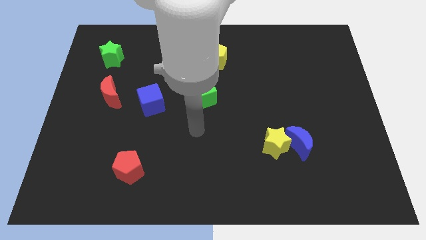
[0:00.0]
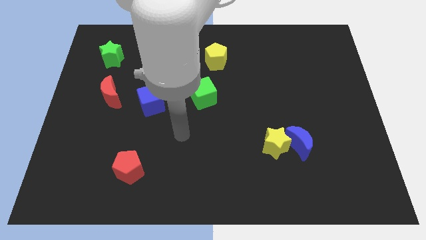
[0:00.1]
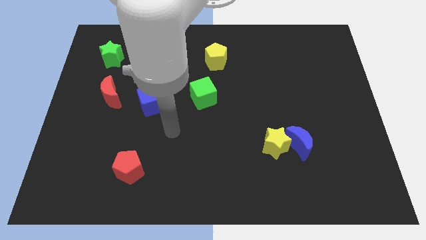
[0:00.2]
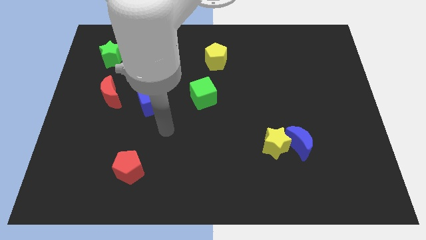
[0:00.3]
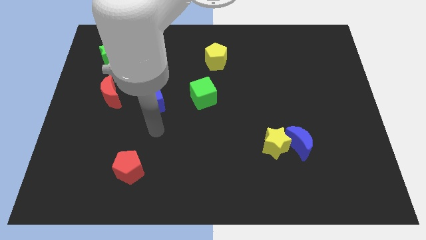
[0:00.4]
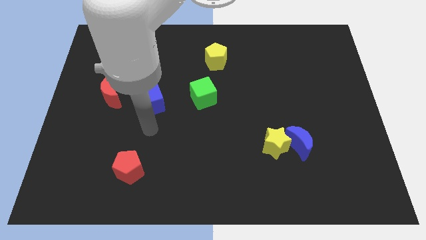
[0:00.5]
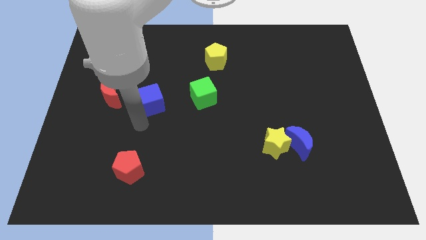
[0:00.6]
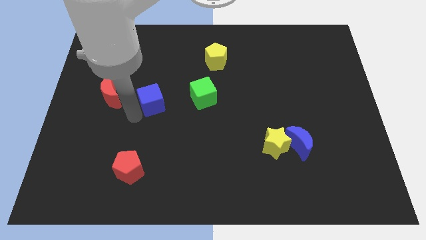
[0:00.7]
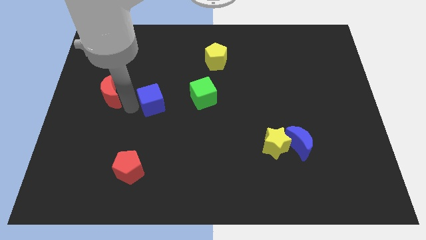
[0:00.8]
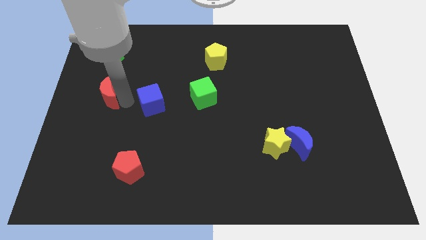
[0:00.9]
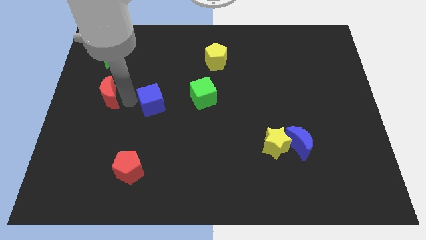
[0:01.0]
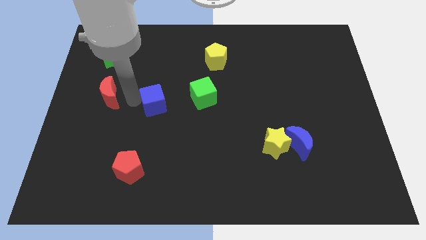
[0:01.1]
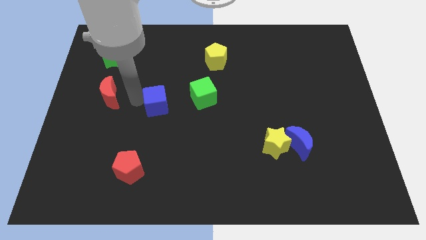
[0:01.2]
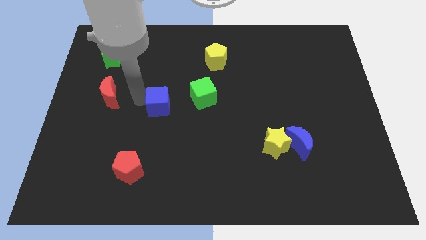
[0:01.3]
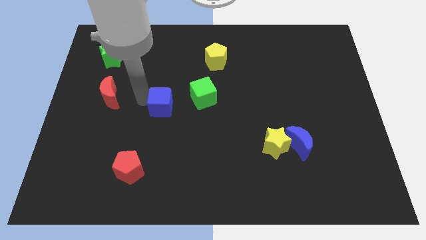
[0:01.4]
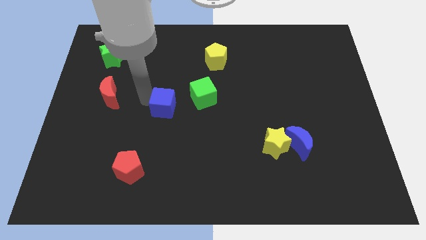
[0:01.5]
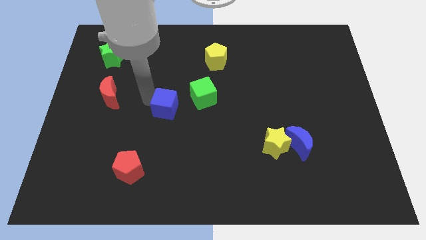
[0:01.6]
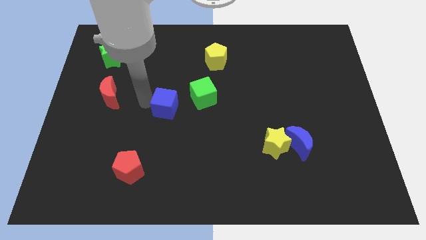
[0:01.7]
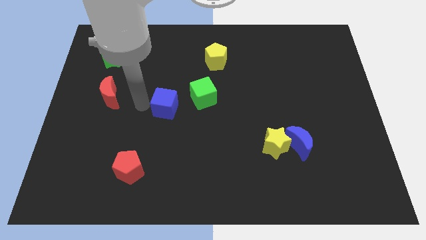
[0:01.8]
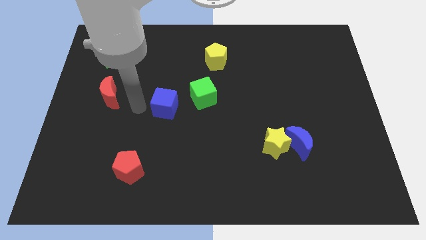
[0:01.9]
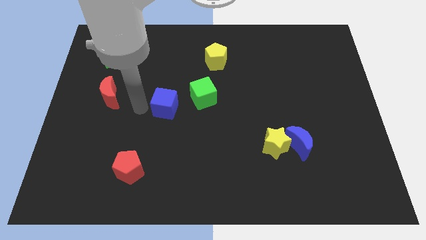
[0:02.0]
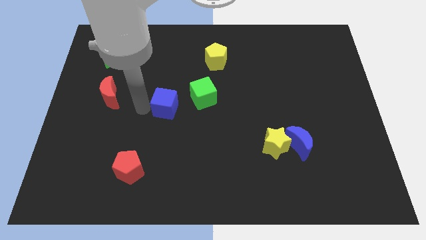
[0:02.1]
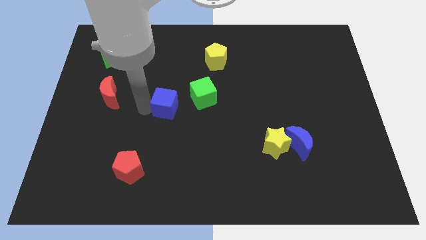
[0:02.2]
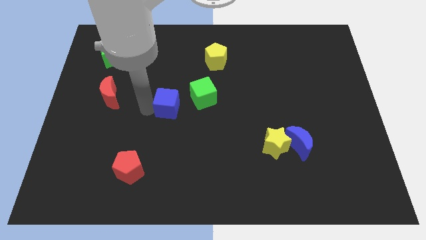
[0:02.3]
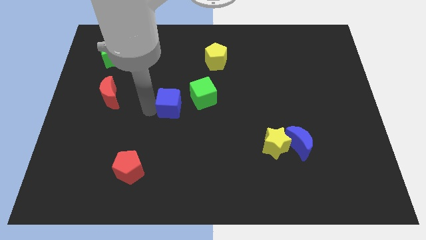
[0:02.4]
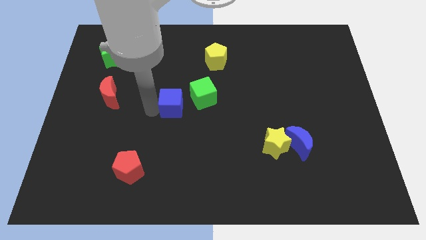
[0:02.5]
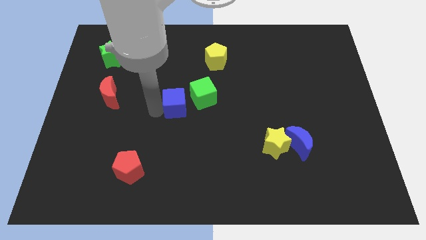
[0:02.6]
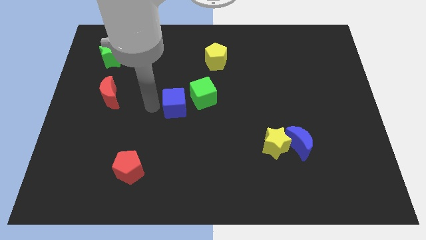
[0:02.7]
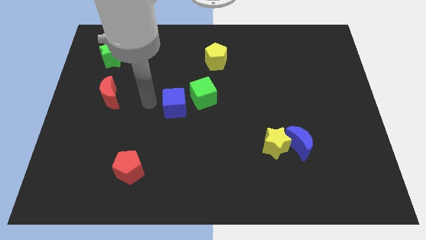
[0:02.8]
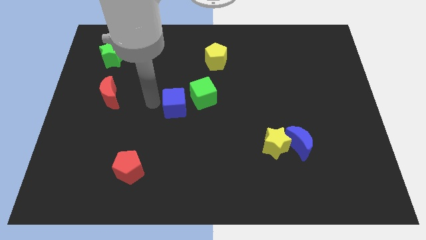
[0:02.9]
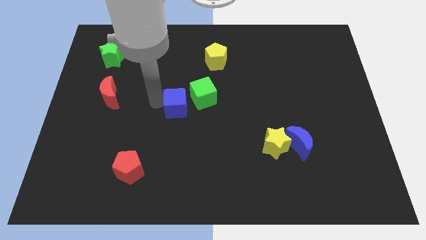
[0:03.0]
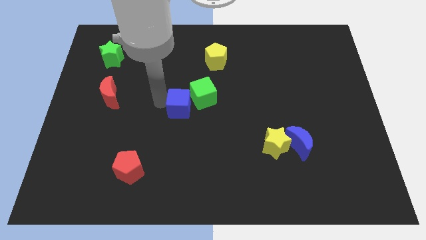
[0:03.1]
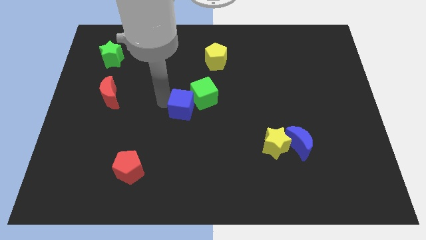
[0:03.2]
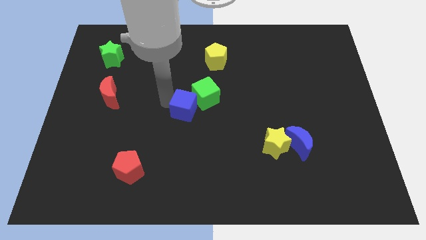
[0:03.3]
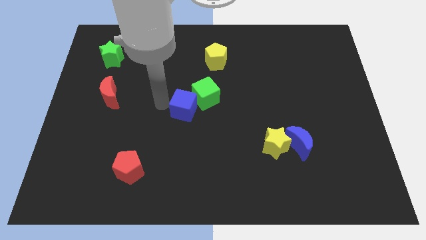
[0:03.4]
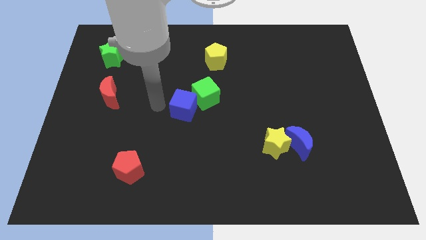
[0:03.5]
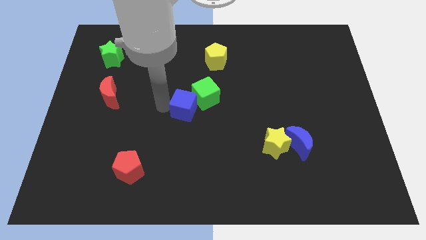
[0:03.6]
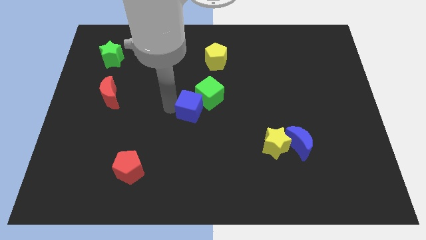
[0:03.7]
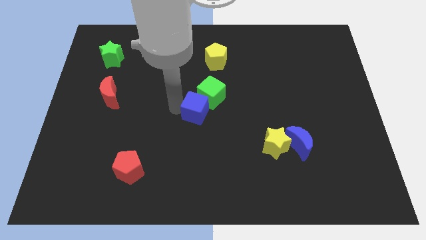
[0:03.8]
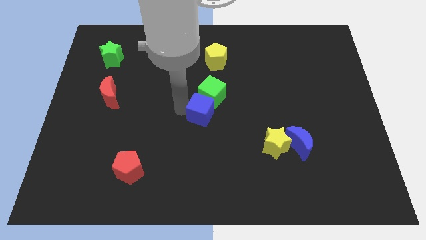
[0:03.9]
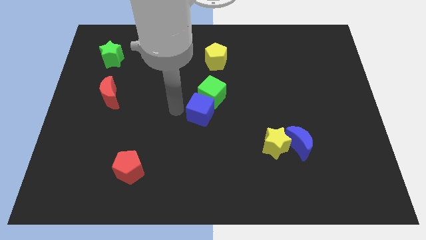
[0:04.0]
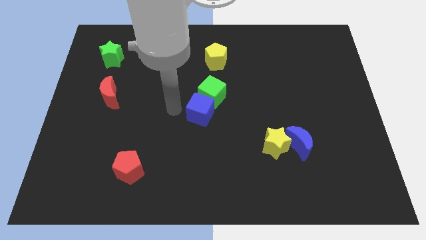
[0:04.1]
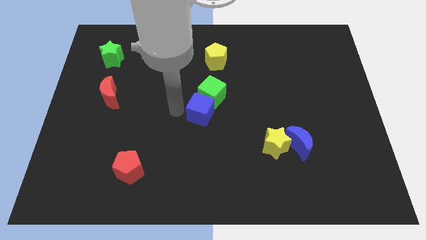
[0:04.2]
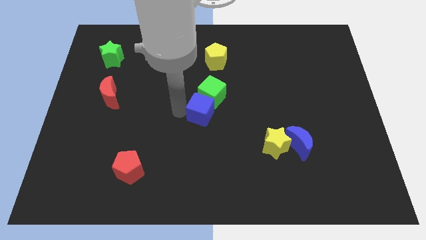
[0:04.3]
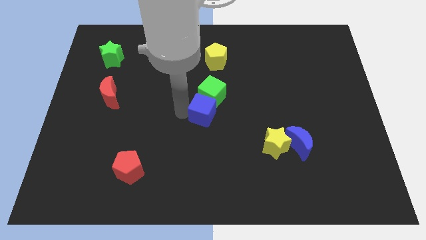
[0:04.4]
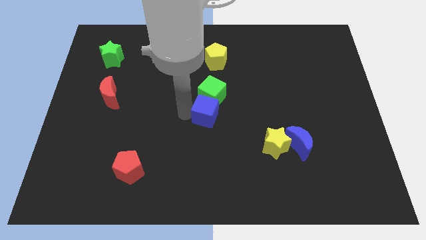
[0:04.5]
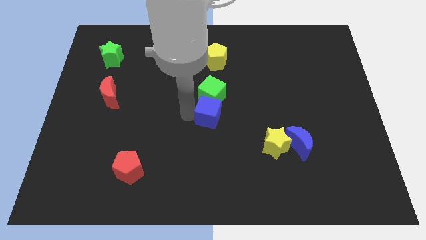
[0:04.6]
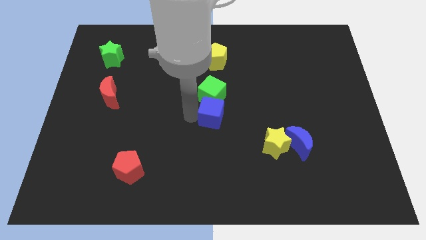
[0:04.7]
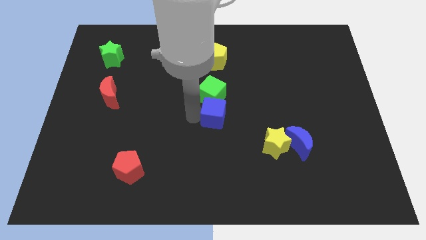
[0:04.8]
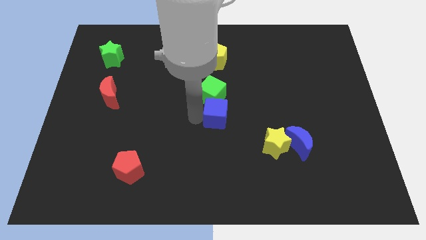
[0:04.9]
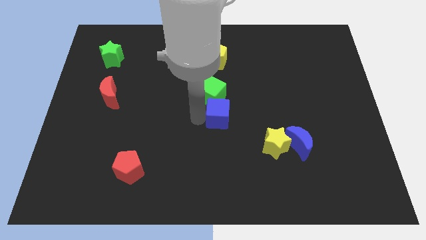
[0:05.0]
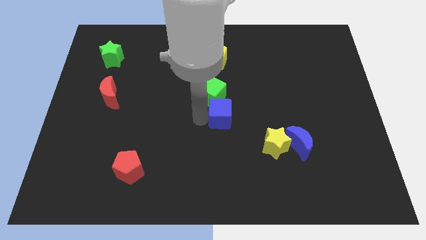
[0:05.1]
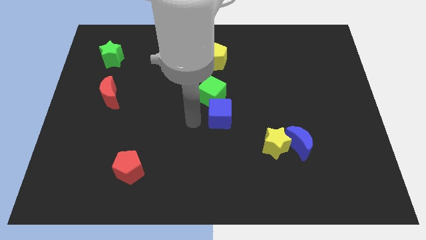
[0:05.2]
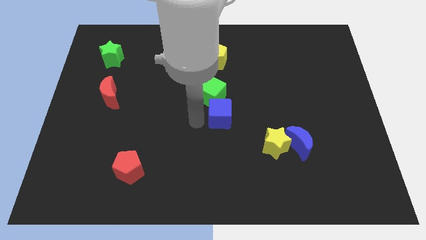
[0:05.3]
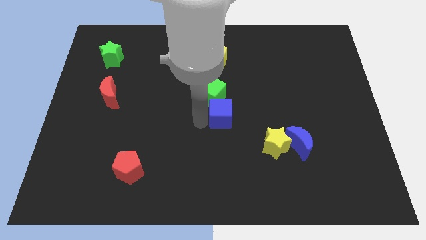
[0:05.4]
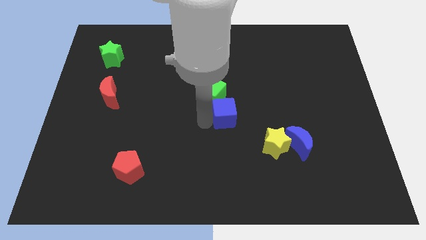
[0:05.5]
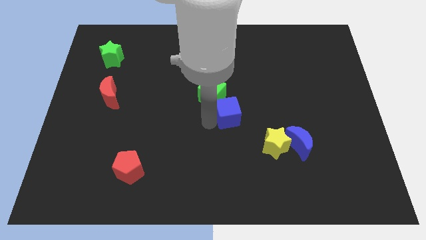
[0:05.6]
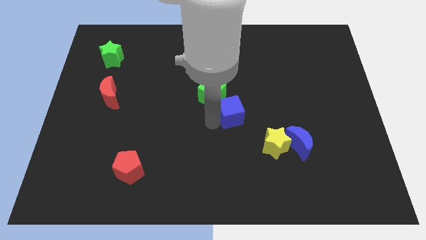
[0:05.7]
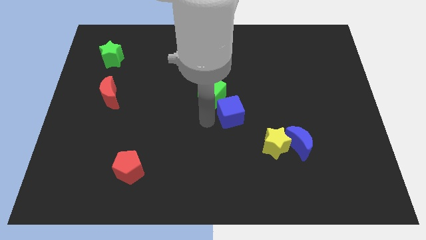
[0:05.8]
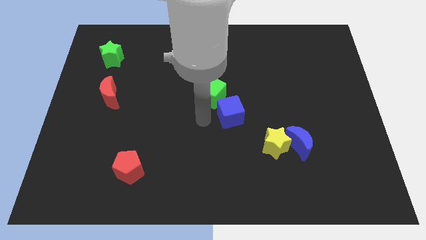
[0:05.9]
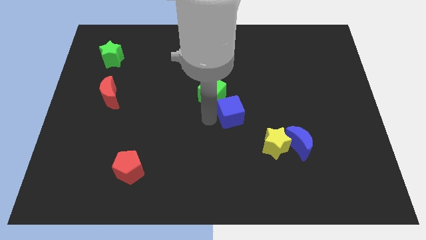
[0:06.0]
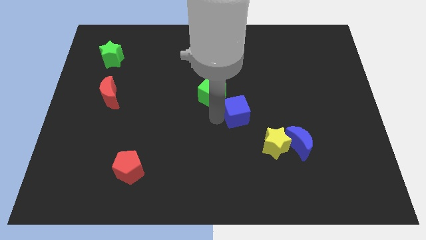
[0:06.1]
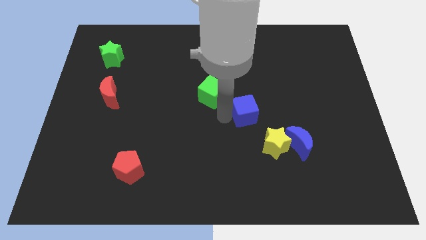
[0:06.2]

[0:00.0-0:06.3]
push the blue cube to the right

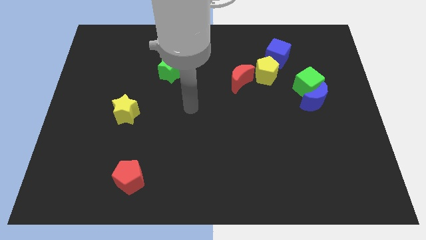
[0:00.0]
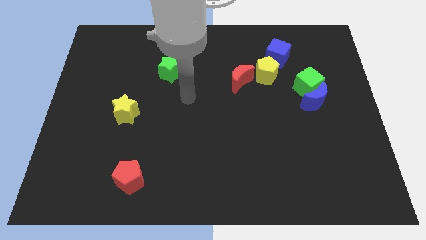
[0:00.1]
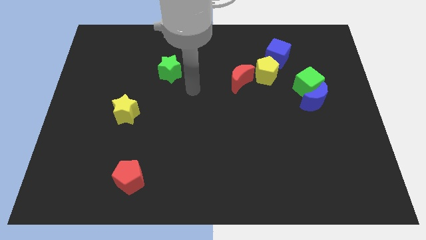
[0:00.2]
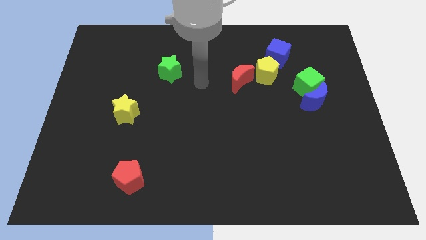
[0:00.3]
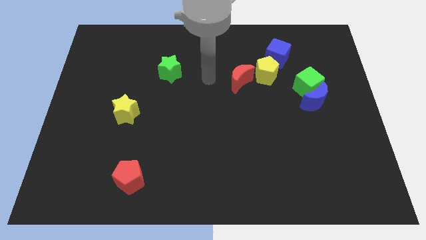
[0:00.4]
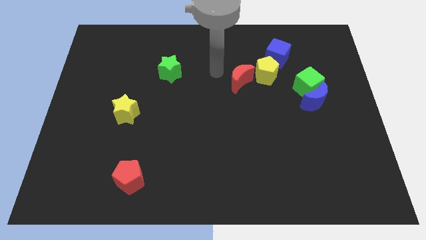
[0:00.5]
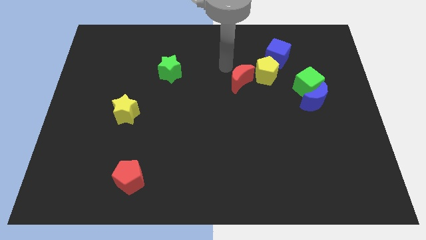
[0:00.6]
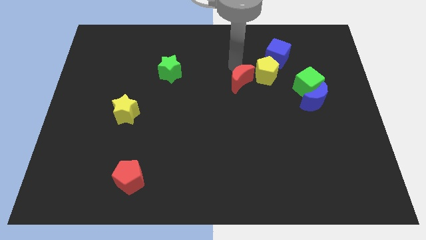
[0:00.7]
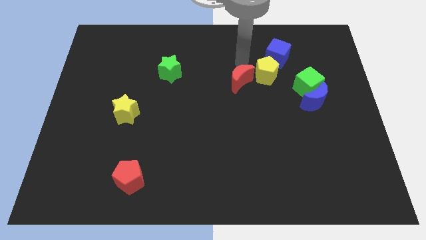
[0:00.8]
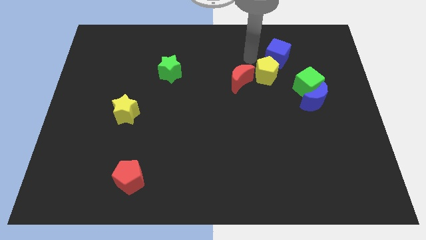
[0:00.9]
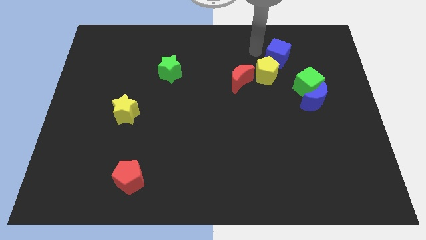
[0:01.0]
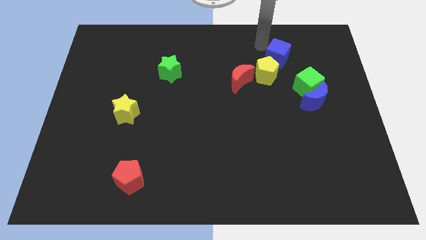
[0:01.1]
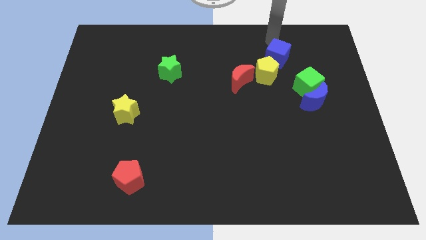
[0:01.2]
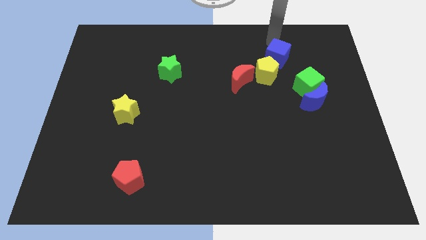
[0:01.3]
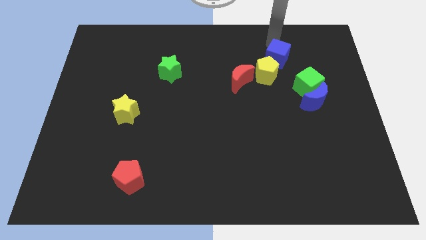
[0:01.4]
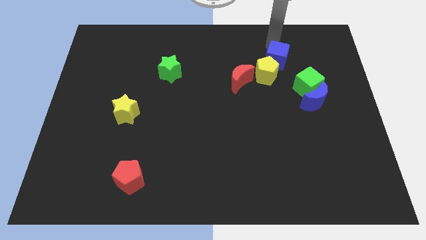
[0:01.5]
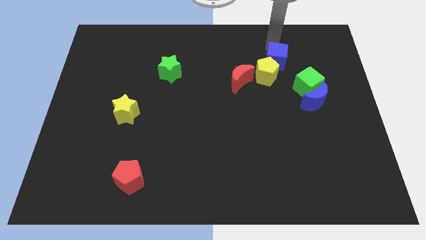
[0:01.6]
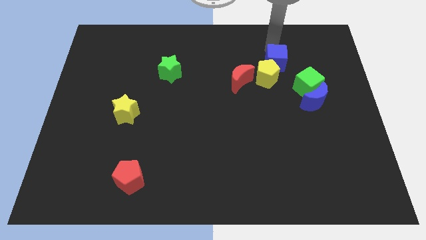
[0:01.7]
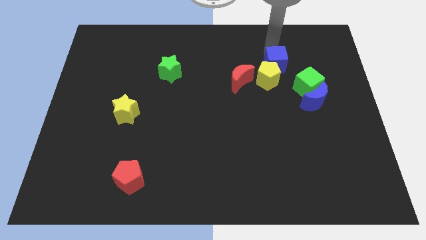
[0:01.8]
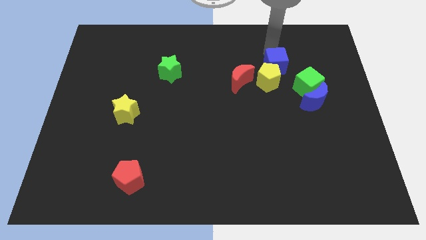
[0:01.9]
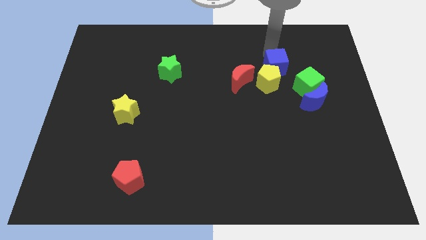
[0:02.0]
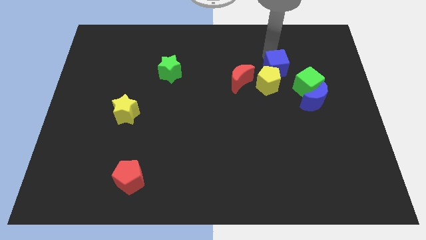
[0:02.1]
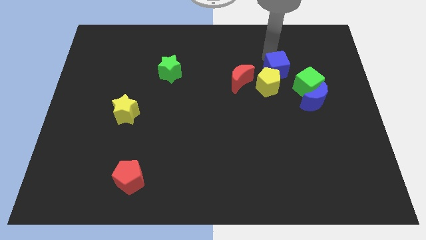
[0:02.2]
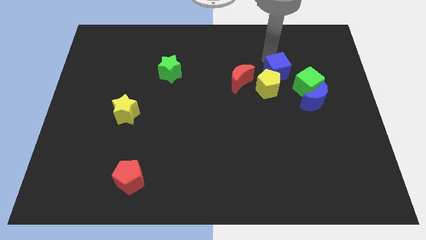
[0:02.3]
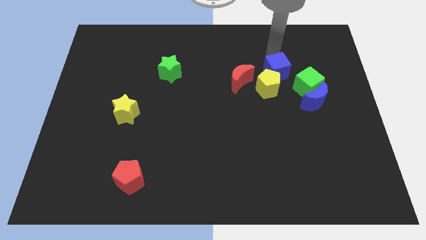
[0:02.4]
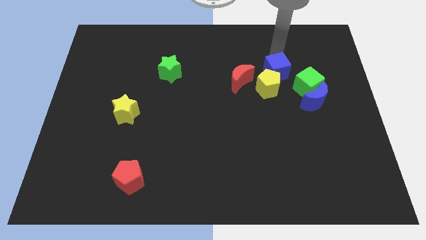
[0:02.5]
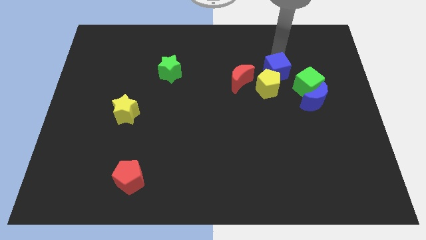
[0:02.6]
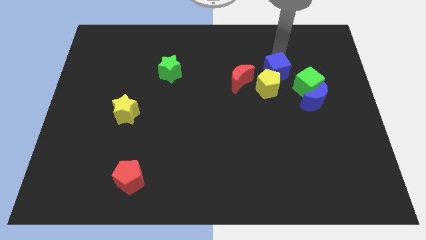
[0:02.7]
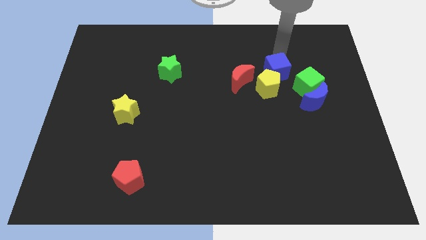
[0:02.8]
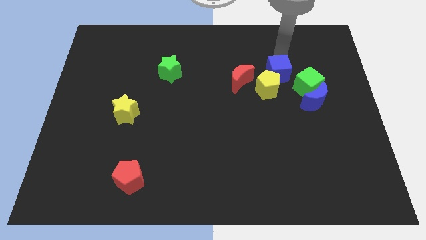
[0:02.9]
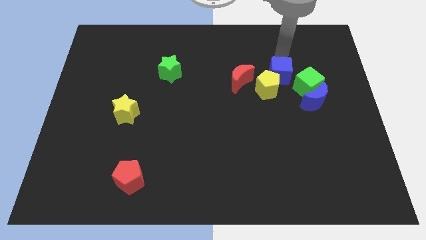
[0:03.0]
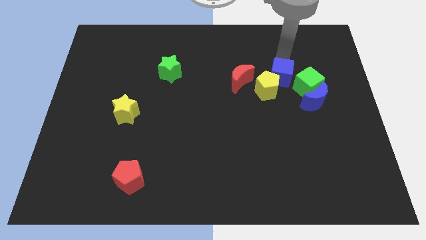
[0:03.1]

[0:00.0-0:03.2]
slide the blue cube downwards slightly
